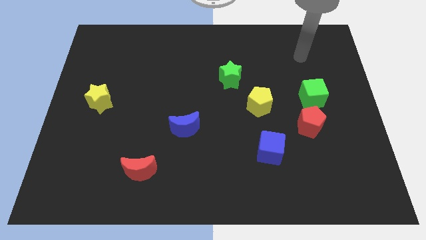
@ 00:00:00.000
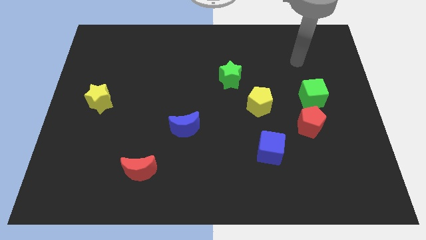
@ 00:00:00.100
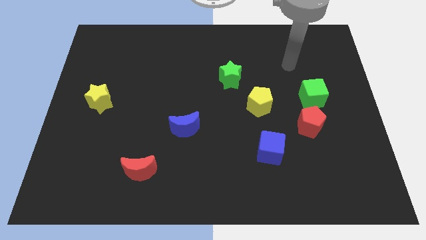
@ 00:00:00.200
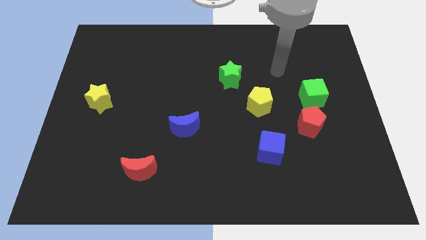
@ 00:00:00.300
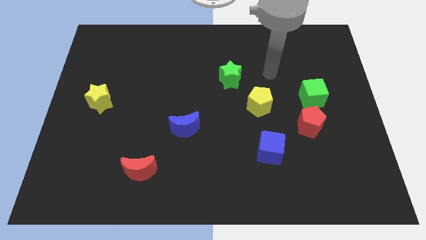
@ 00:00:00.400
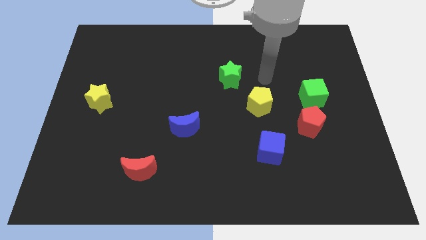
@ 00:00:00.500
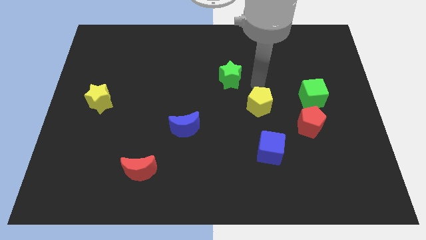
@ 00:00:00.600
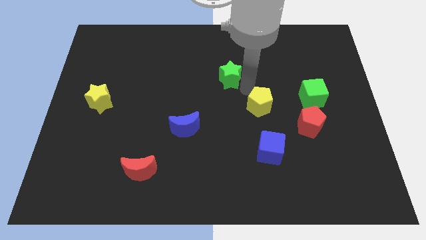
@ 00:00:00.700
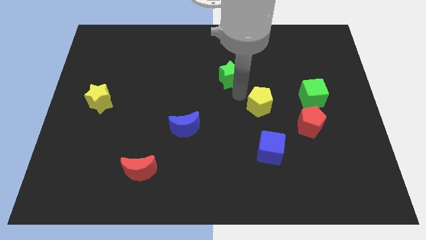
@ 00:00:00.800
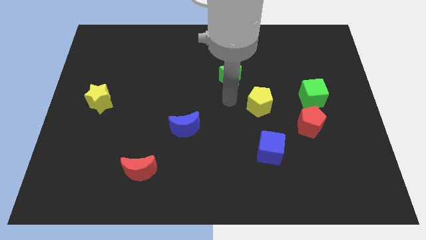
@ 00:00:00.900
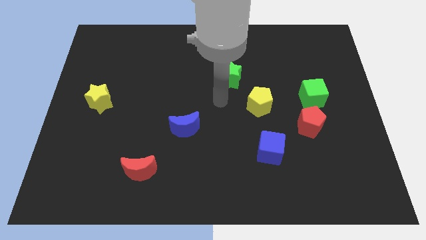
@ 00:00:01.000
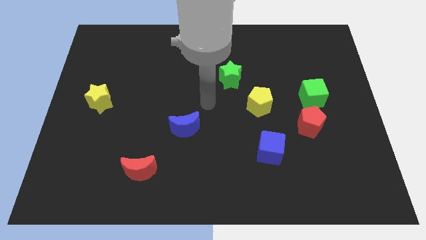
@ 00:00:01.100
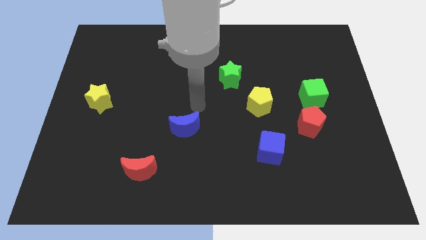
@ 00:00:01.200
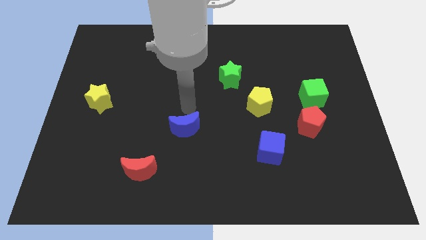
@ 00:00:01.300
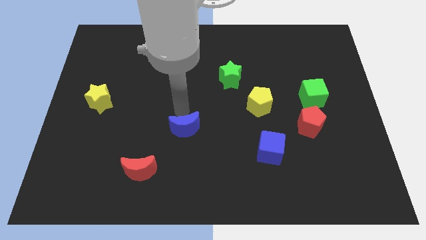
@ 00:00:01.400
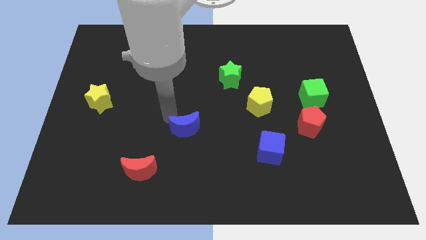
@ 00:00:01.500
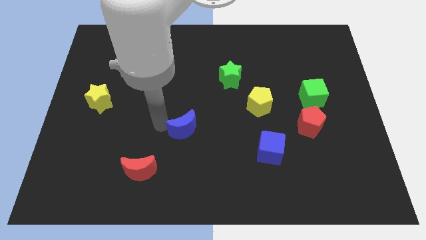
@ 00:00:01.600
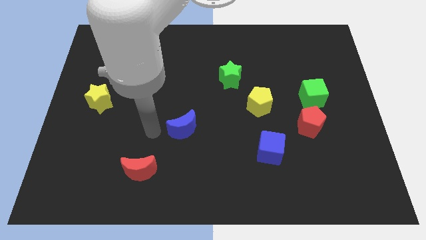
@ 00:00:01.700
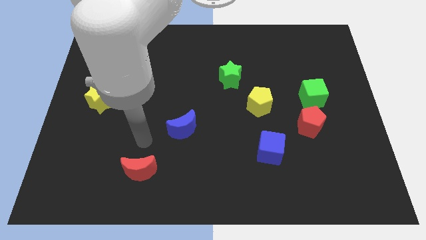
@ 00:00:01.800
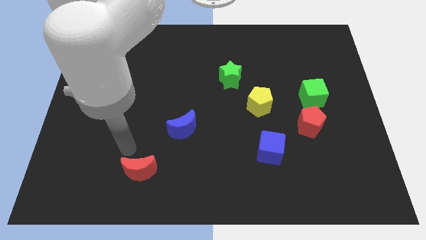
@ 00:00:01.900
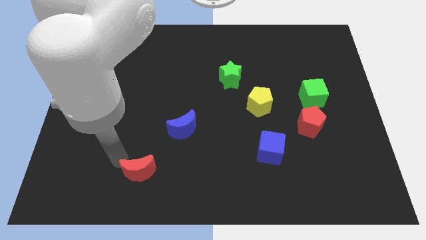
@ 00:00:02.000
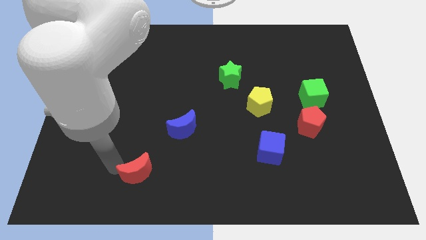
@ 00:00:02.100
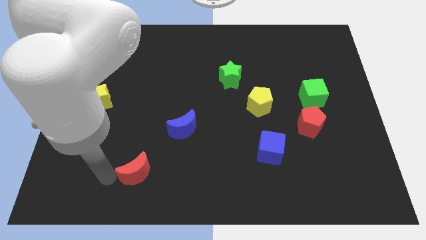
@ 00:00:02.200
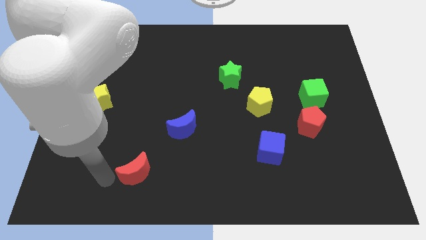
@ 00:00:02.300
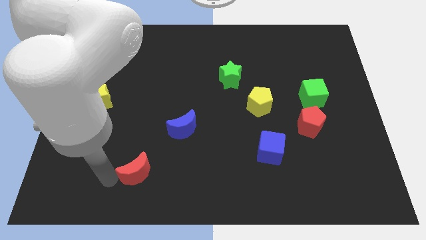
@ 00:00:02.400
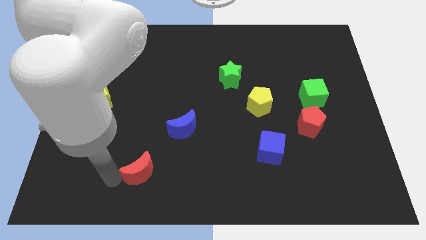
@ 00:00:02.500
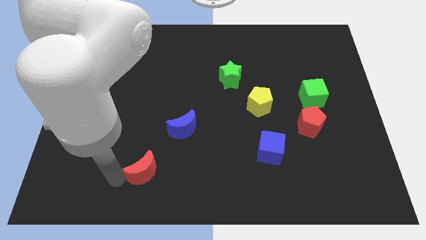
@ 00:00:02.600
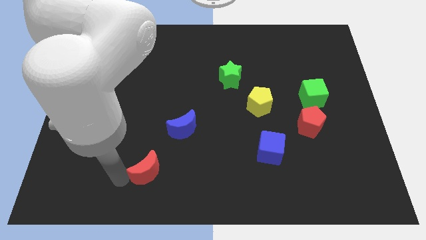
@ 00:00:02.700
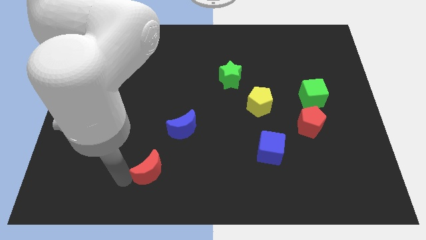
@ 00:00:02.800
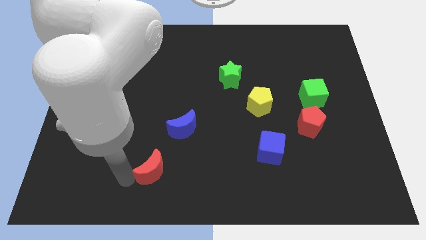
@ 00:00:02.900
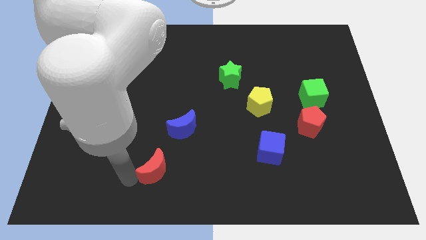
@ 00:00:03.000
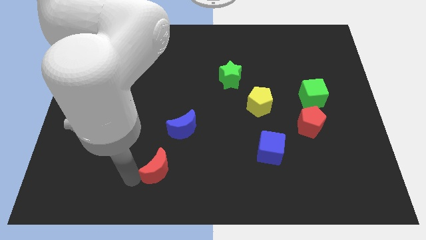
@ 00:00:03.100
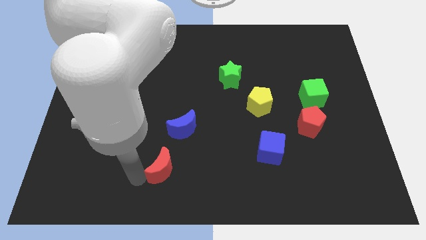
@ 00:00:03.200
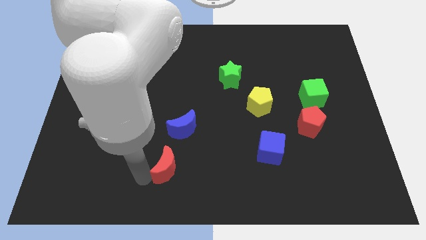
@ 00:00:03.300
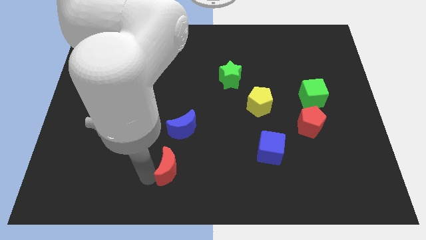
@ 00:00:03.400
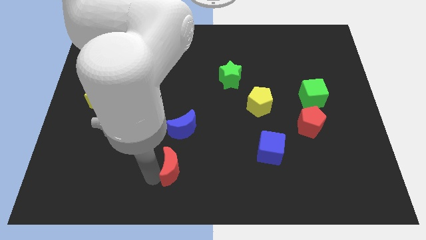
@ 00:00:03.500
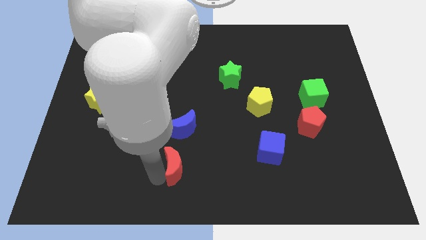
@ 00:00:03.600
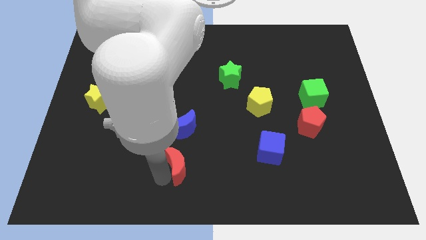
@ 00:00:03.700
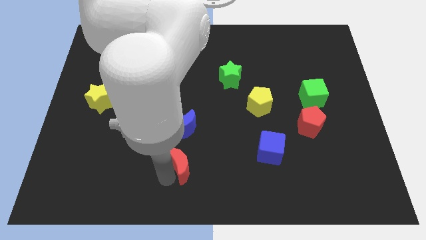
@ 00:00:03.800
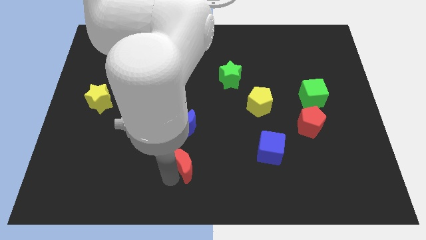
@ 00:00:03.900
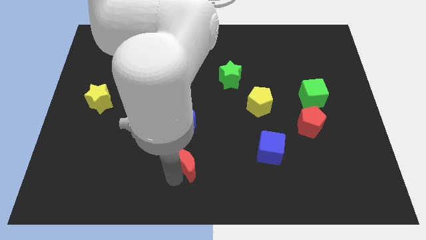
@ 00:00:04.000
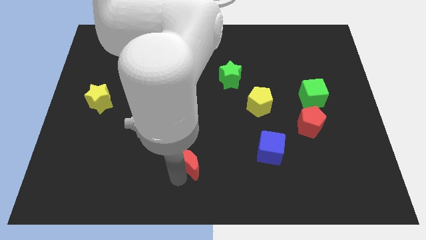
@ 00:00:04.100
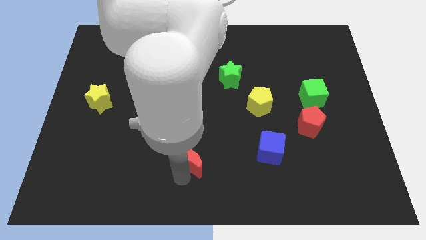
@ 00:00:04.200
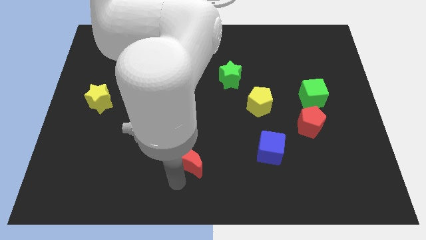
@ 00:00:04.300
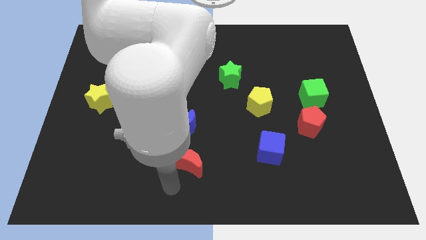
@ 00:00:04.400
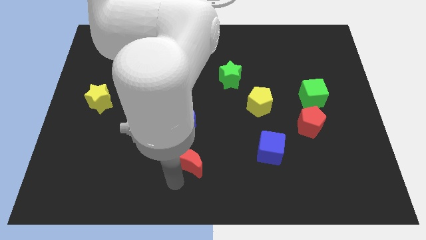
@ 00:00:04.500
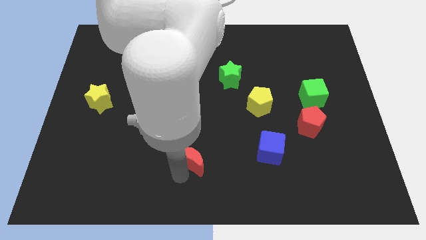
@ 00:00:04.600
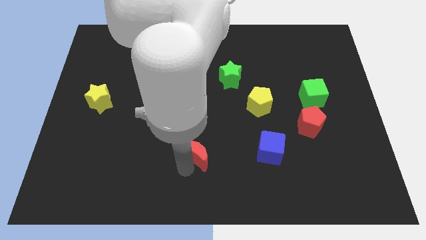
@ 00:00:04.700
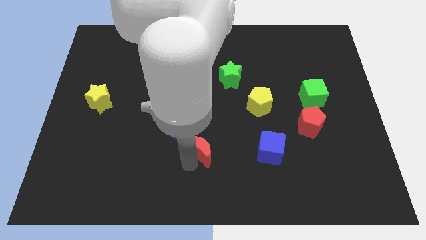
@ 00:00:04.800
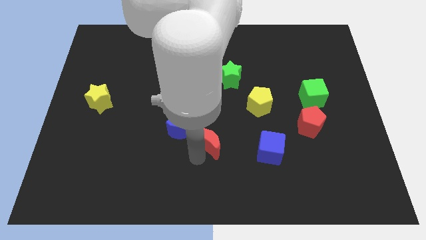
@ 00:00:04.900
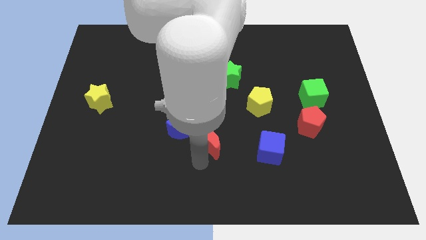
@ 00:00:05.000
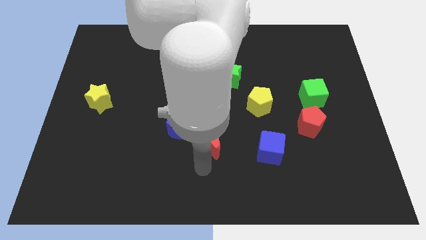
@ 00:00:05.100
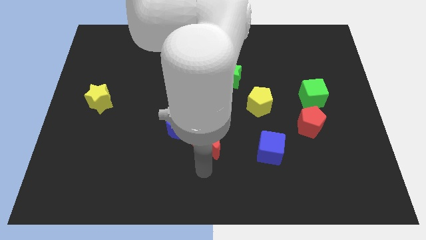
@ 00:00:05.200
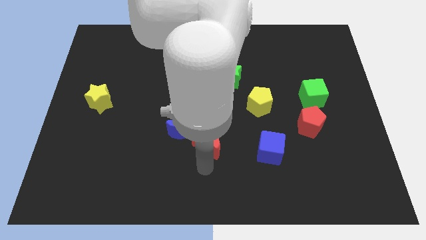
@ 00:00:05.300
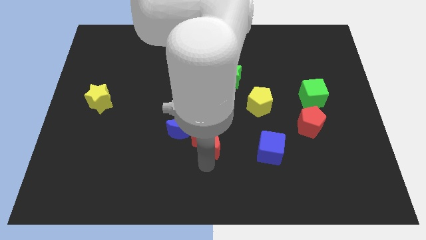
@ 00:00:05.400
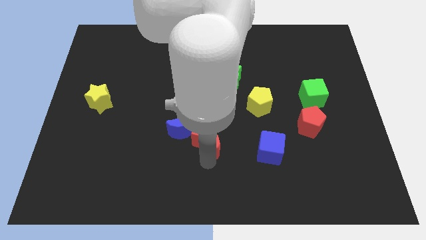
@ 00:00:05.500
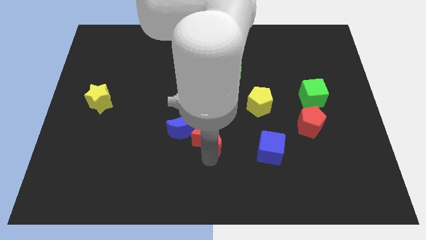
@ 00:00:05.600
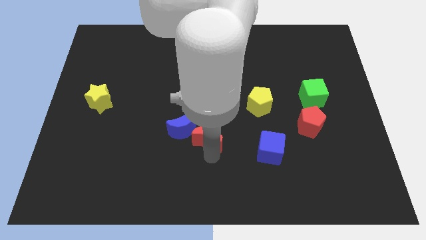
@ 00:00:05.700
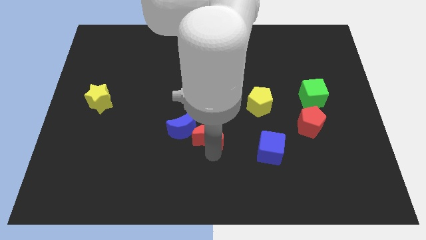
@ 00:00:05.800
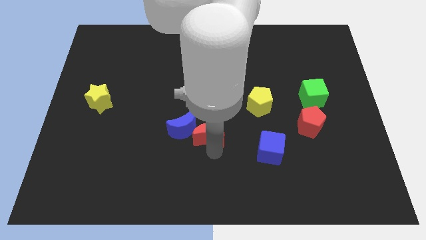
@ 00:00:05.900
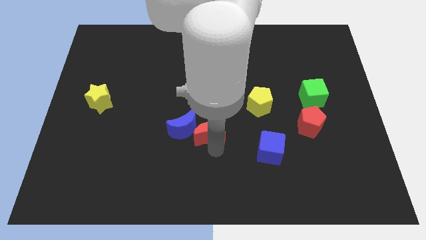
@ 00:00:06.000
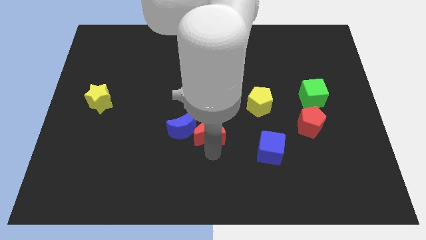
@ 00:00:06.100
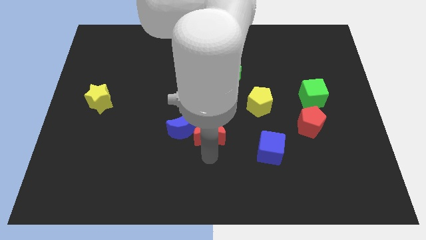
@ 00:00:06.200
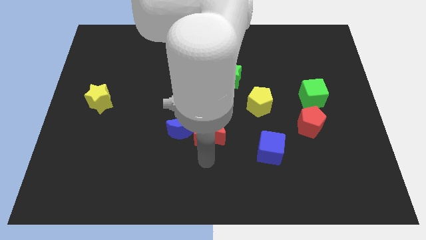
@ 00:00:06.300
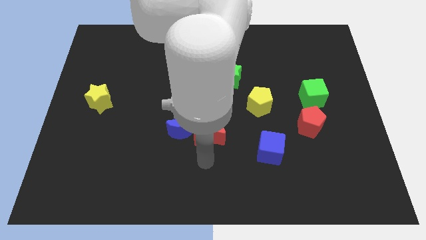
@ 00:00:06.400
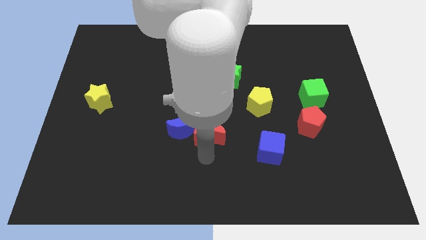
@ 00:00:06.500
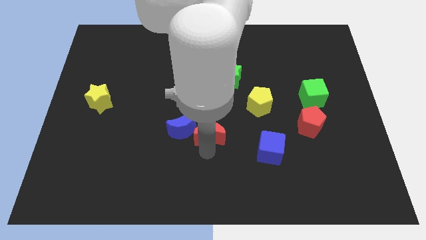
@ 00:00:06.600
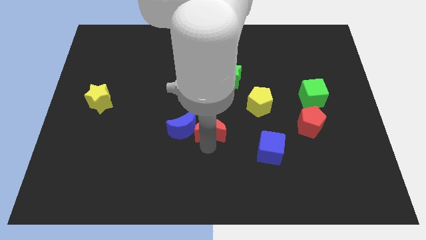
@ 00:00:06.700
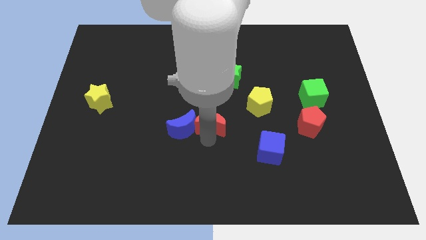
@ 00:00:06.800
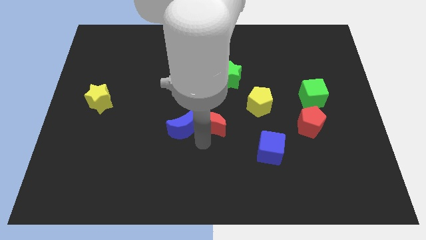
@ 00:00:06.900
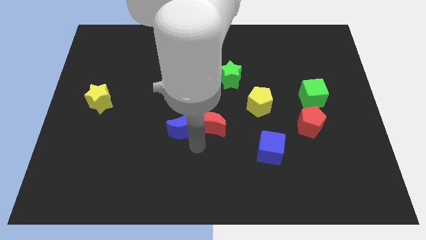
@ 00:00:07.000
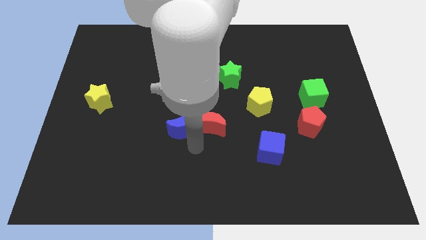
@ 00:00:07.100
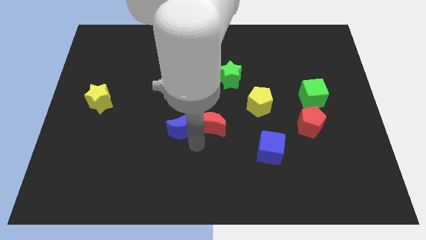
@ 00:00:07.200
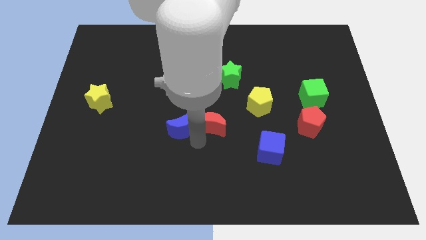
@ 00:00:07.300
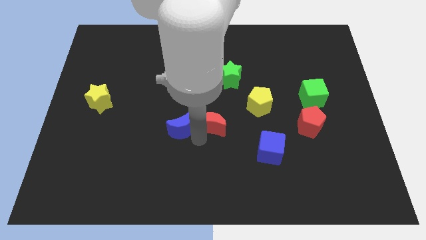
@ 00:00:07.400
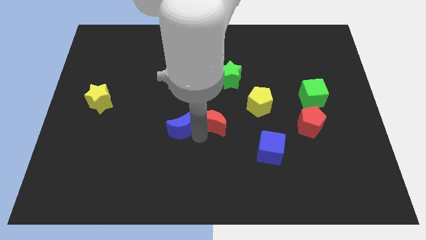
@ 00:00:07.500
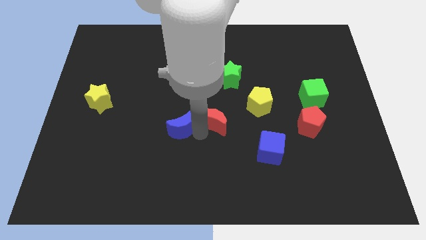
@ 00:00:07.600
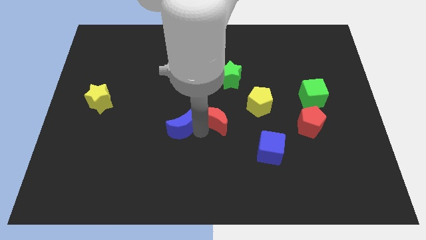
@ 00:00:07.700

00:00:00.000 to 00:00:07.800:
move the red moon upwards and then right

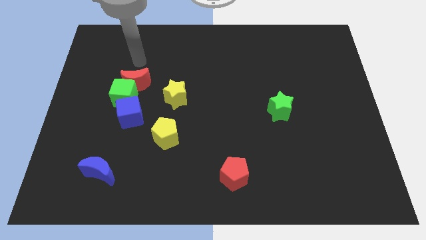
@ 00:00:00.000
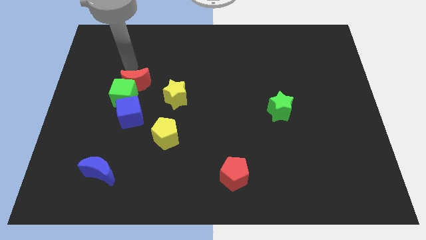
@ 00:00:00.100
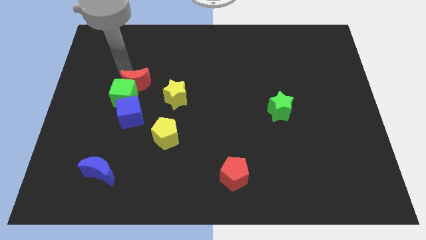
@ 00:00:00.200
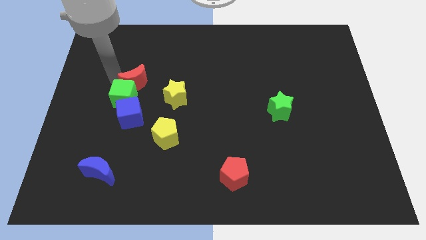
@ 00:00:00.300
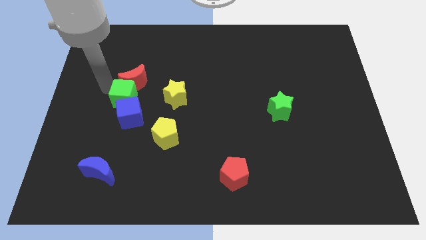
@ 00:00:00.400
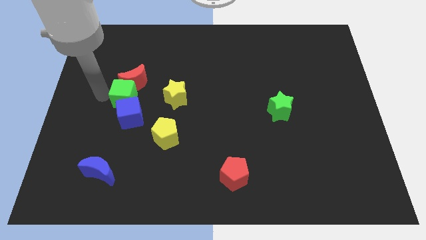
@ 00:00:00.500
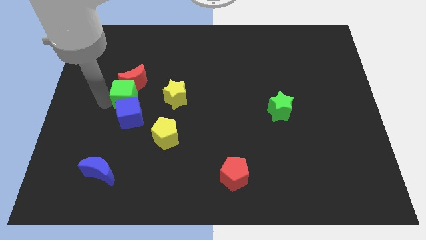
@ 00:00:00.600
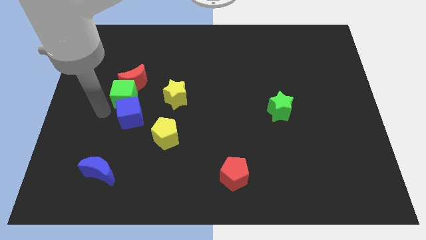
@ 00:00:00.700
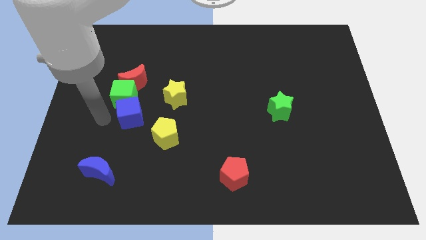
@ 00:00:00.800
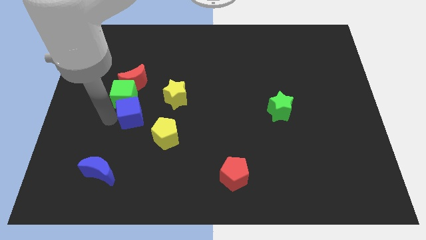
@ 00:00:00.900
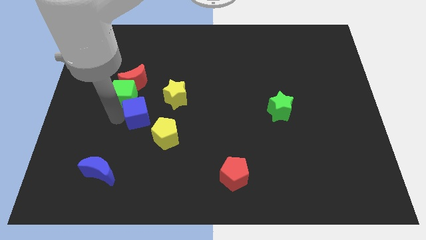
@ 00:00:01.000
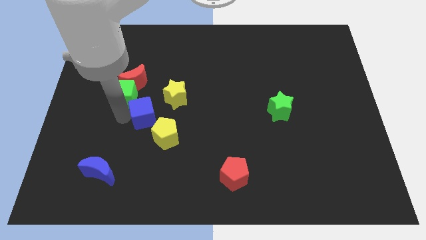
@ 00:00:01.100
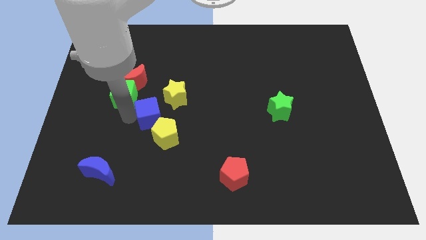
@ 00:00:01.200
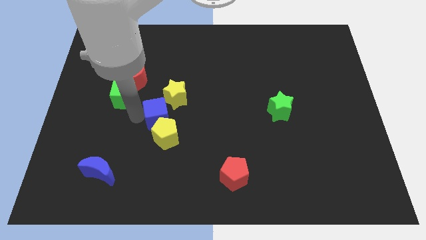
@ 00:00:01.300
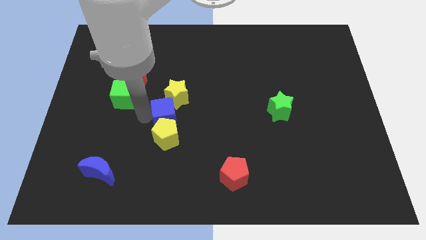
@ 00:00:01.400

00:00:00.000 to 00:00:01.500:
slightly move the blue cube to the right
